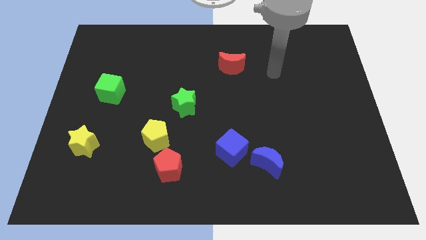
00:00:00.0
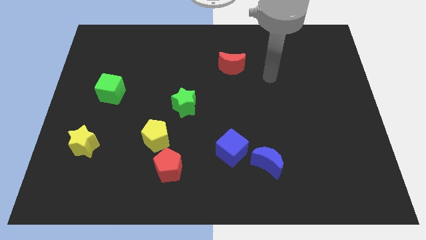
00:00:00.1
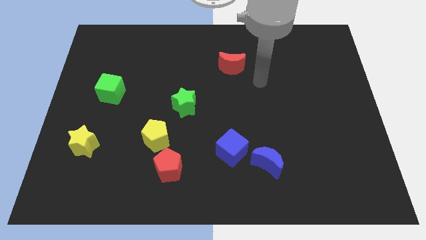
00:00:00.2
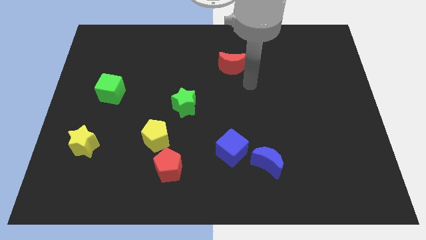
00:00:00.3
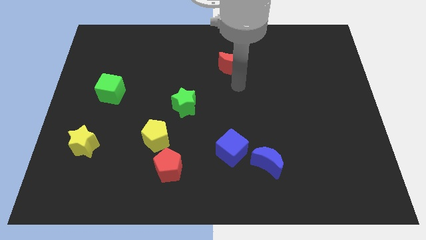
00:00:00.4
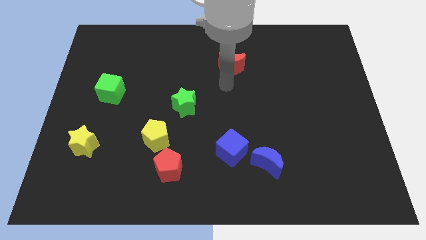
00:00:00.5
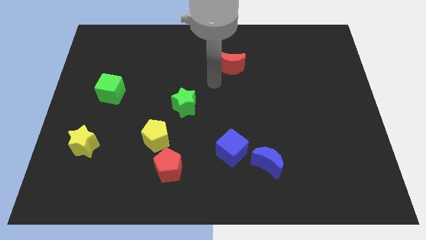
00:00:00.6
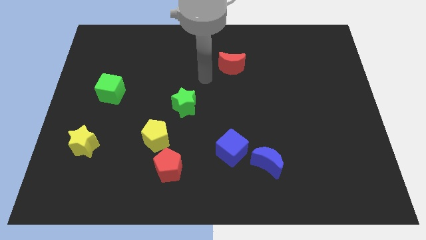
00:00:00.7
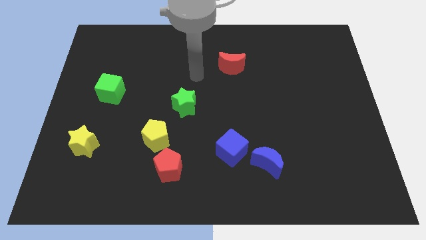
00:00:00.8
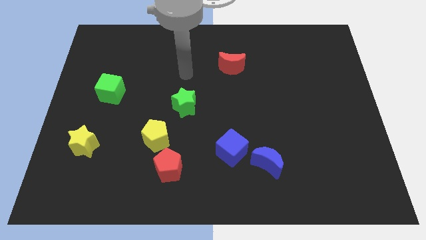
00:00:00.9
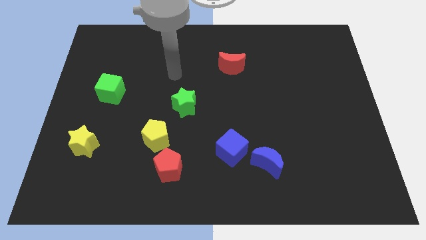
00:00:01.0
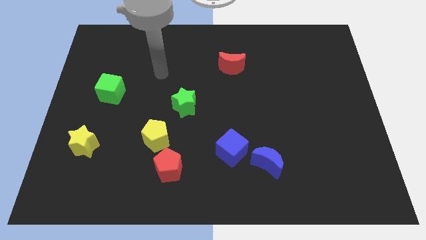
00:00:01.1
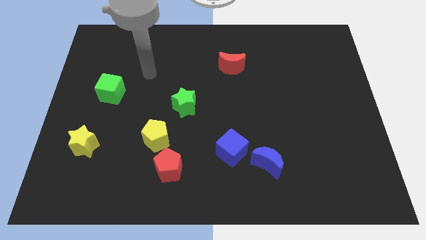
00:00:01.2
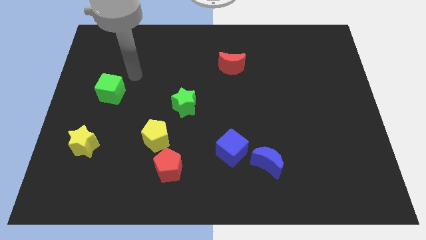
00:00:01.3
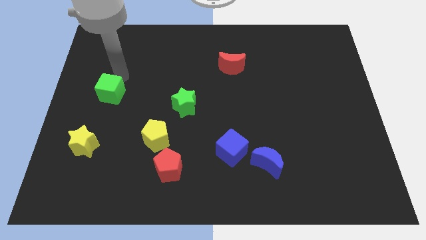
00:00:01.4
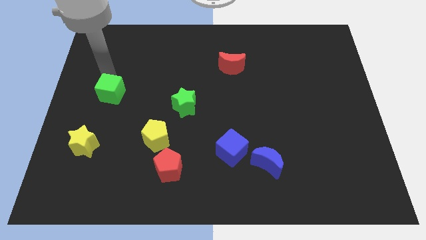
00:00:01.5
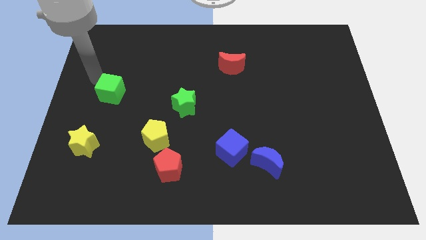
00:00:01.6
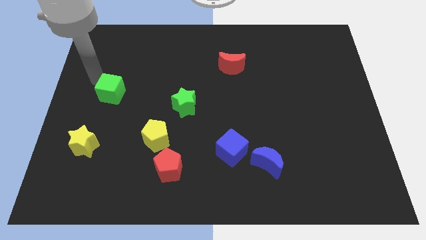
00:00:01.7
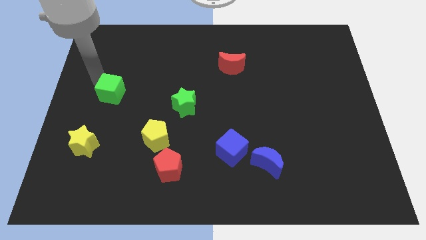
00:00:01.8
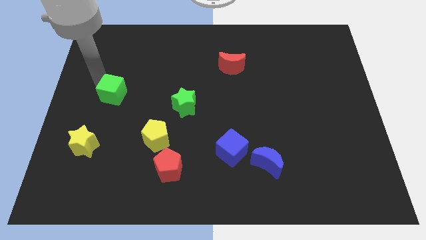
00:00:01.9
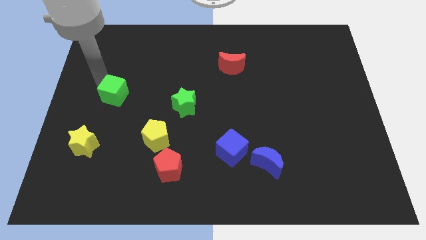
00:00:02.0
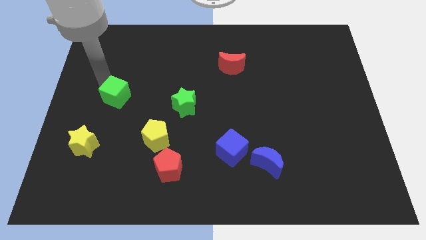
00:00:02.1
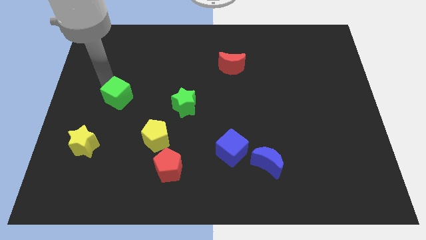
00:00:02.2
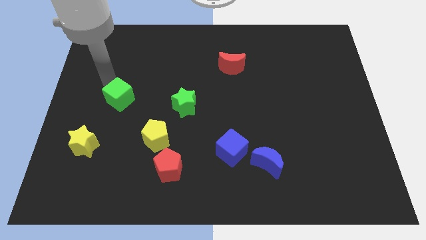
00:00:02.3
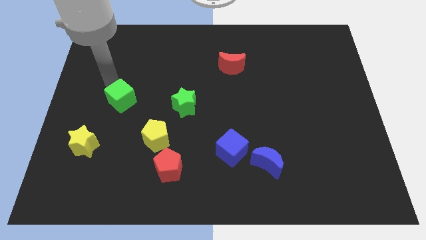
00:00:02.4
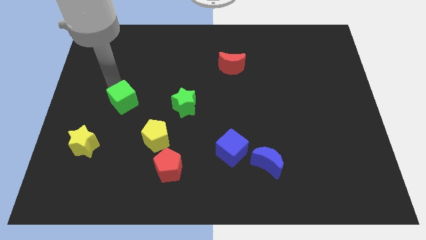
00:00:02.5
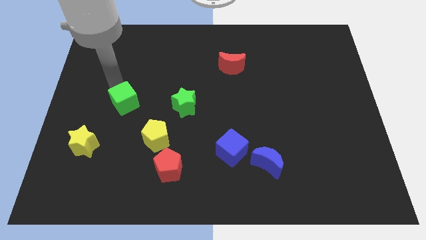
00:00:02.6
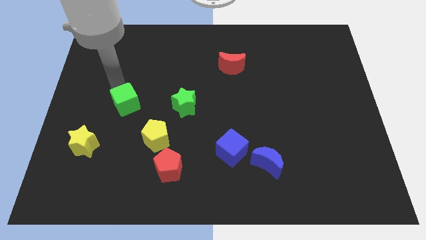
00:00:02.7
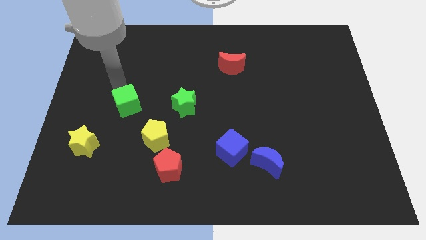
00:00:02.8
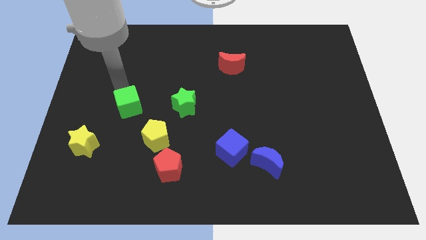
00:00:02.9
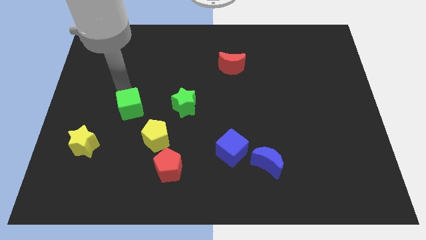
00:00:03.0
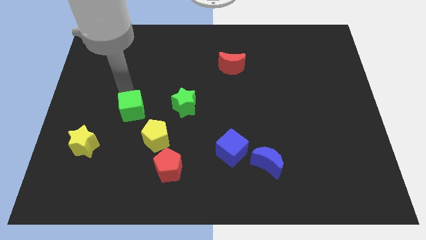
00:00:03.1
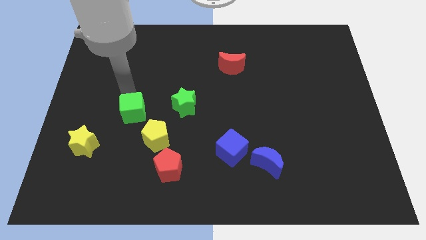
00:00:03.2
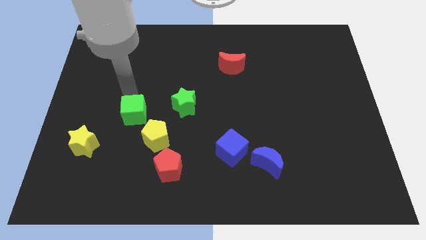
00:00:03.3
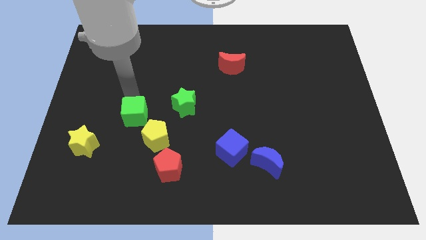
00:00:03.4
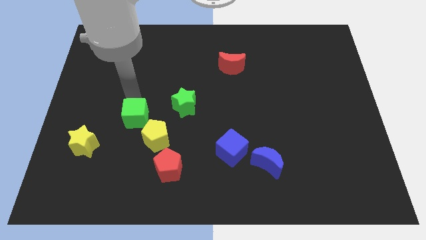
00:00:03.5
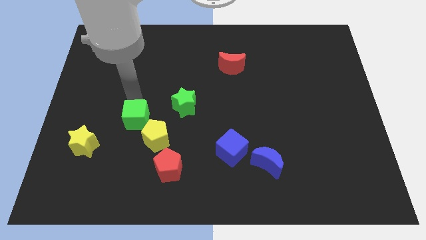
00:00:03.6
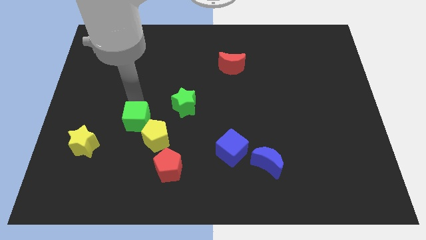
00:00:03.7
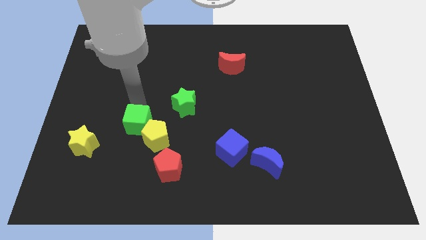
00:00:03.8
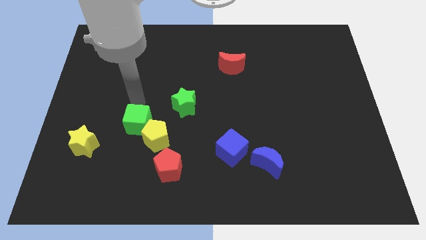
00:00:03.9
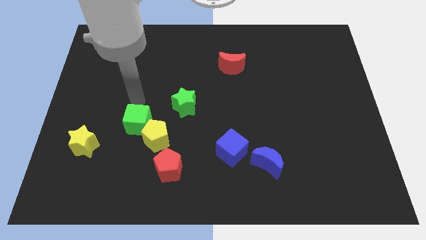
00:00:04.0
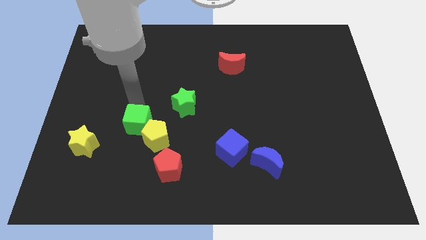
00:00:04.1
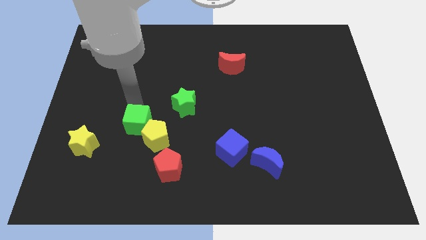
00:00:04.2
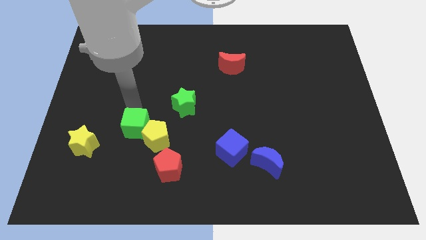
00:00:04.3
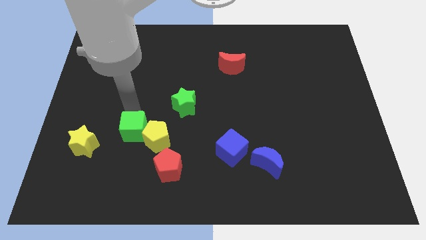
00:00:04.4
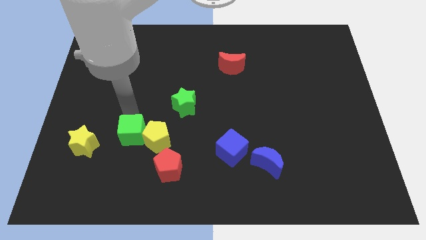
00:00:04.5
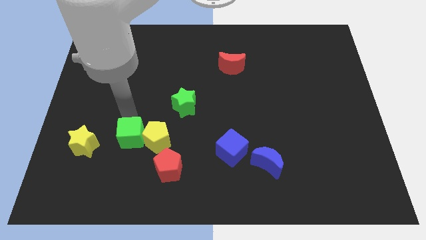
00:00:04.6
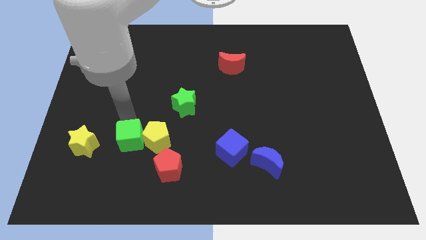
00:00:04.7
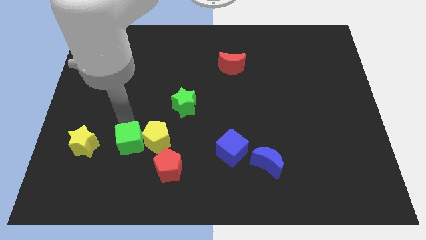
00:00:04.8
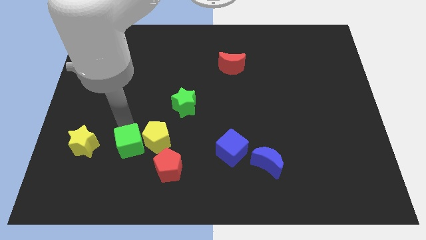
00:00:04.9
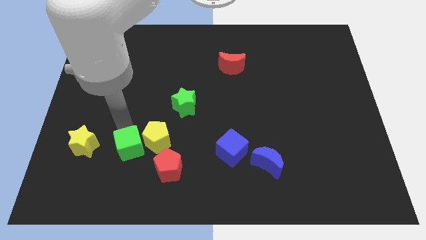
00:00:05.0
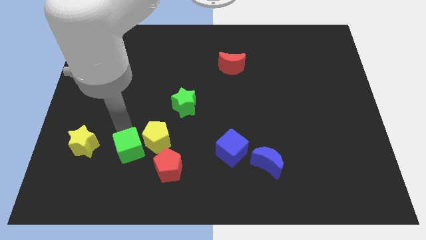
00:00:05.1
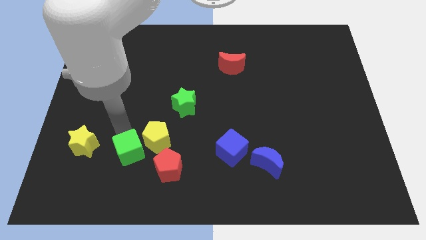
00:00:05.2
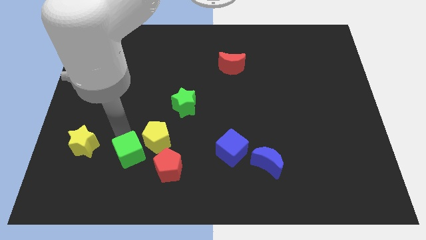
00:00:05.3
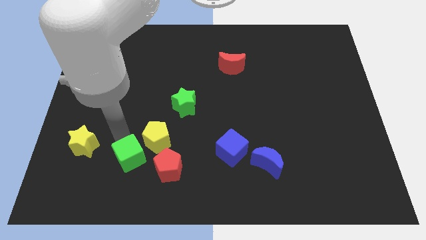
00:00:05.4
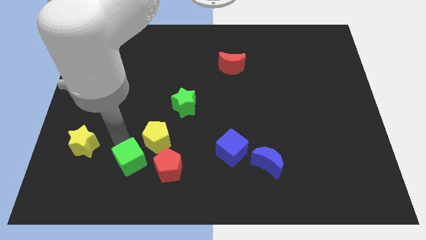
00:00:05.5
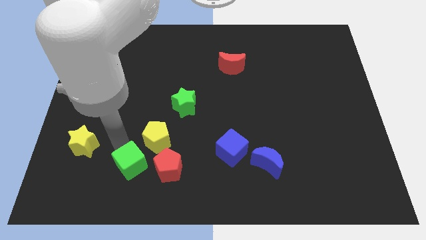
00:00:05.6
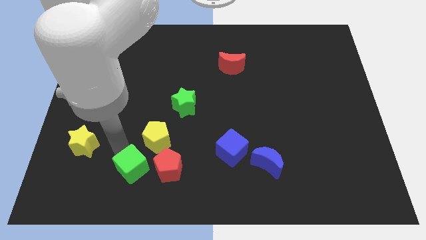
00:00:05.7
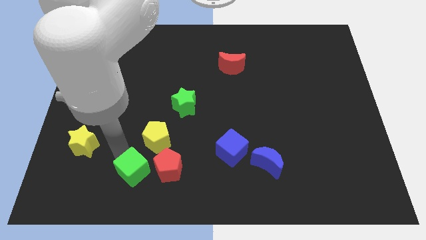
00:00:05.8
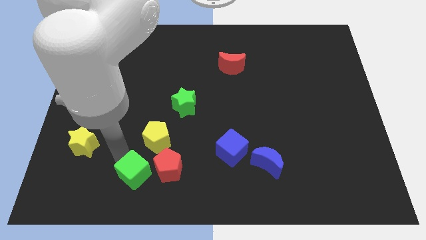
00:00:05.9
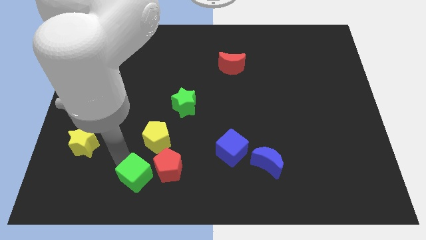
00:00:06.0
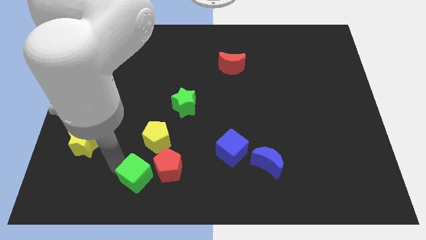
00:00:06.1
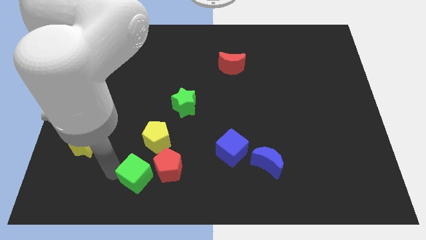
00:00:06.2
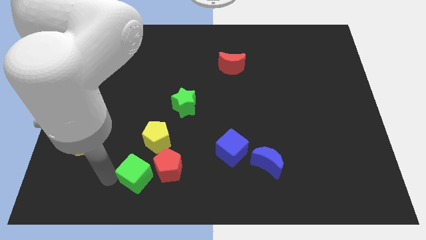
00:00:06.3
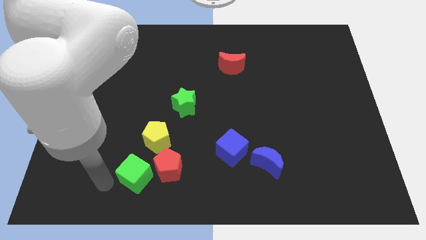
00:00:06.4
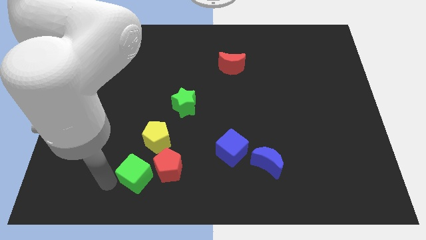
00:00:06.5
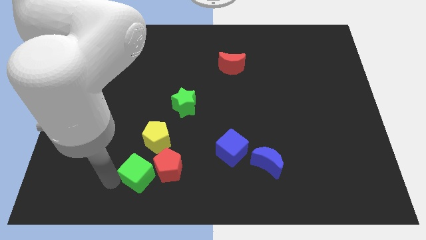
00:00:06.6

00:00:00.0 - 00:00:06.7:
move the green cube to the red pentagon

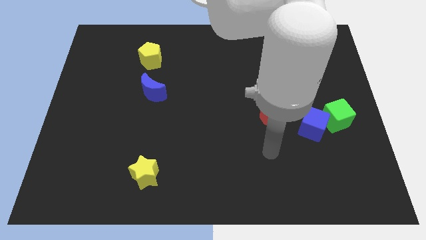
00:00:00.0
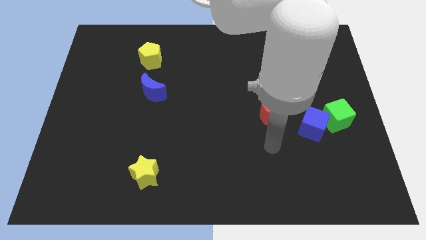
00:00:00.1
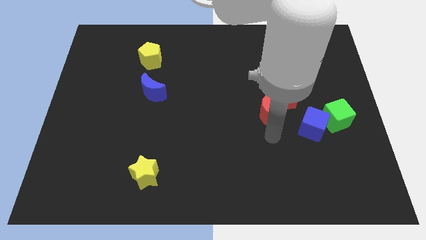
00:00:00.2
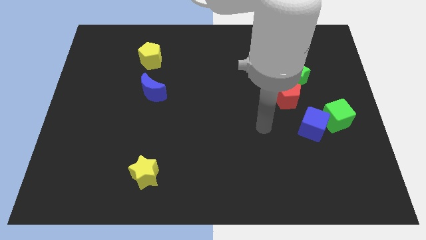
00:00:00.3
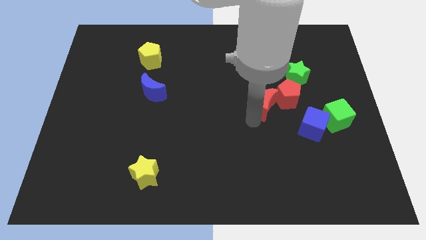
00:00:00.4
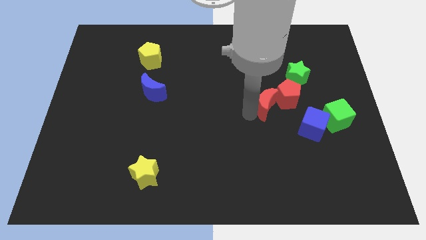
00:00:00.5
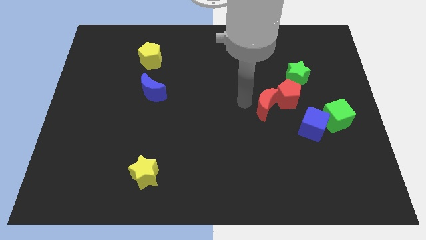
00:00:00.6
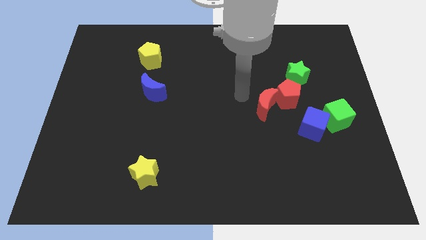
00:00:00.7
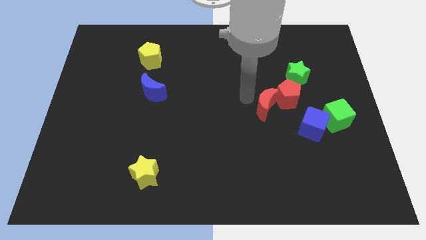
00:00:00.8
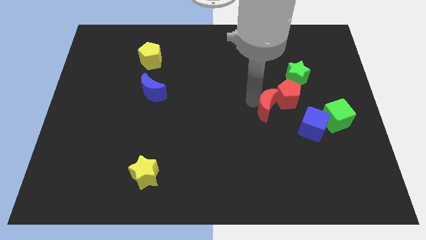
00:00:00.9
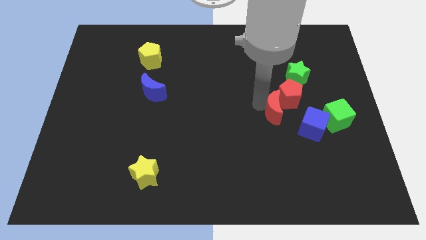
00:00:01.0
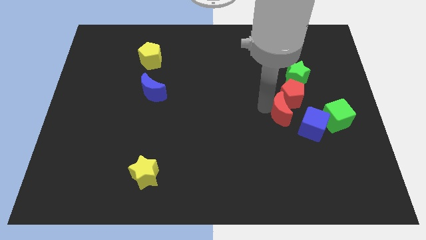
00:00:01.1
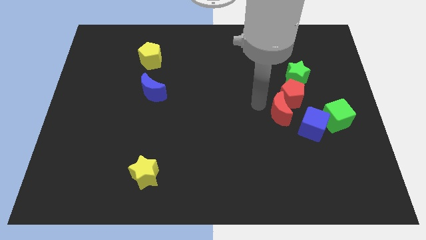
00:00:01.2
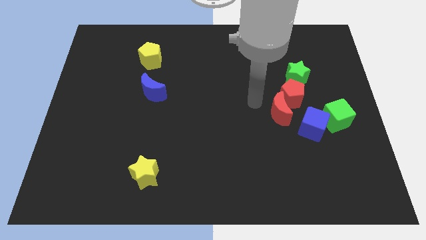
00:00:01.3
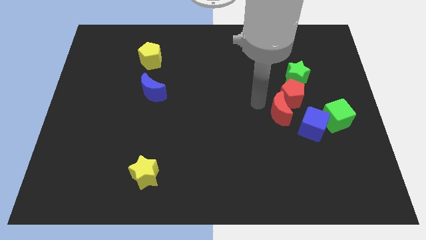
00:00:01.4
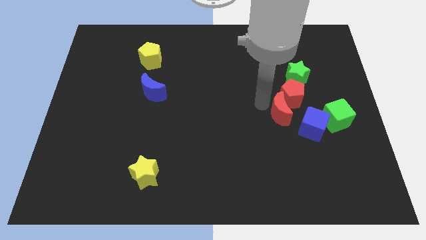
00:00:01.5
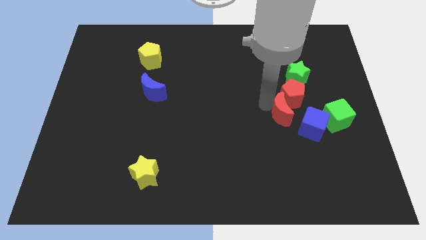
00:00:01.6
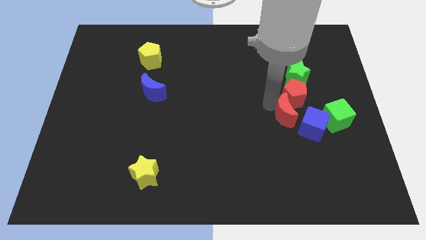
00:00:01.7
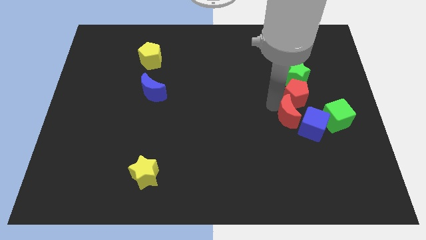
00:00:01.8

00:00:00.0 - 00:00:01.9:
slide the red moon towards the blue cube
